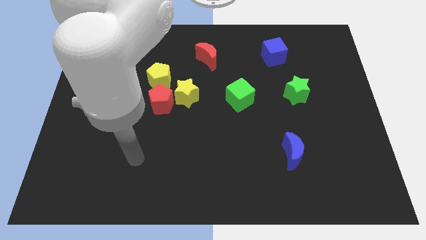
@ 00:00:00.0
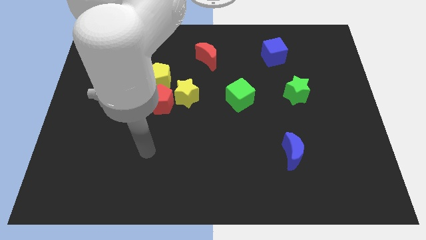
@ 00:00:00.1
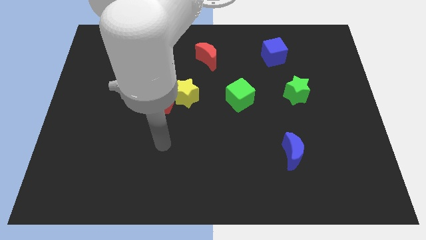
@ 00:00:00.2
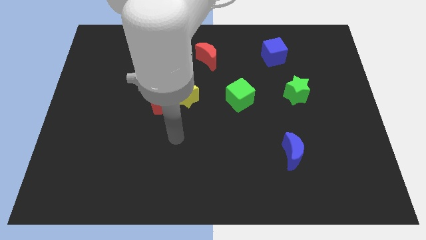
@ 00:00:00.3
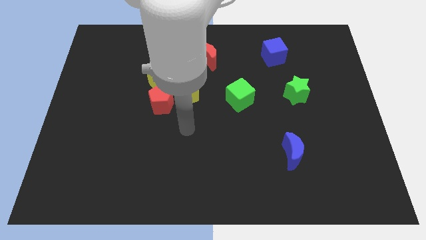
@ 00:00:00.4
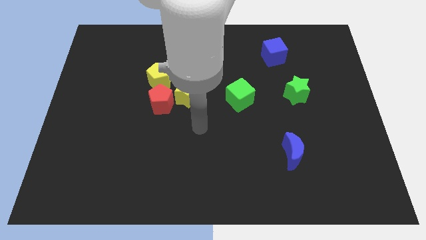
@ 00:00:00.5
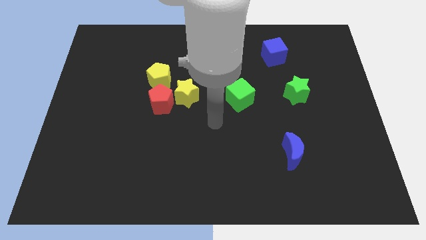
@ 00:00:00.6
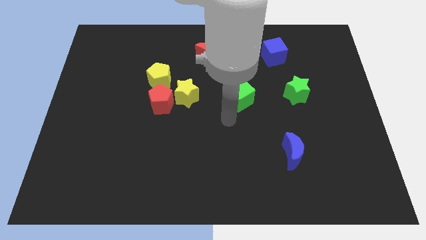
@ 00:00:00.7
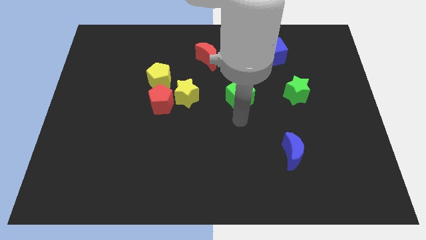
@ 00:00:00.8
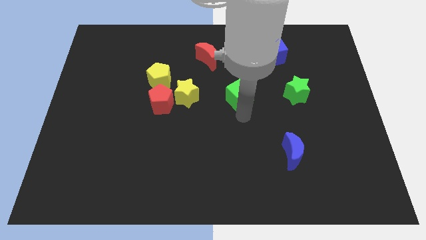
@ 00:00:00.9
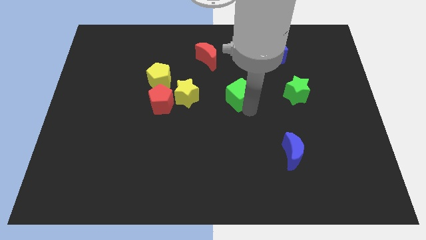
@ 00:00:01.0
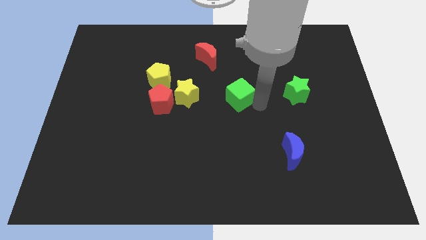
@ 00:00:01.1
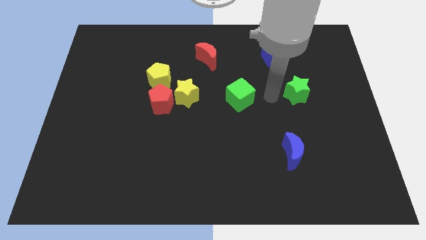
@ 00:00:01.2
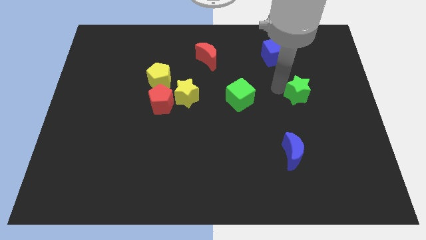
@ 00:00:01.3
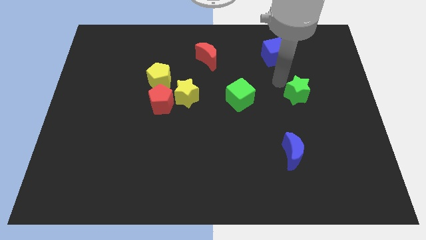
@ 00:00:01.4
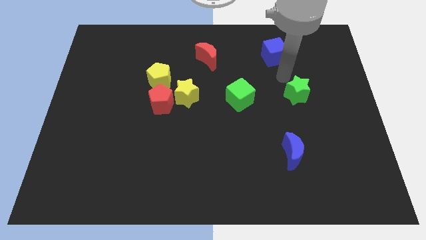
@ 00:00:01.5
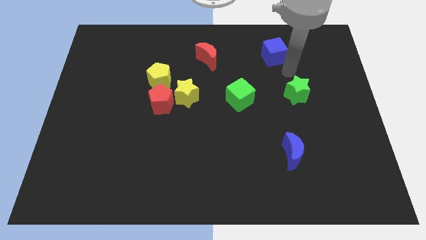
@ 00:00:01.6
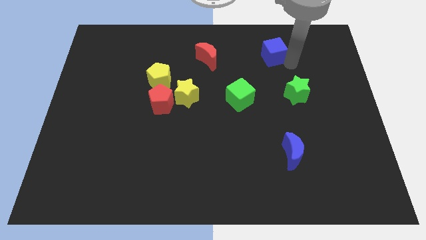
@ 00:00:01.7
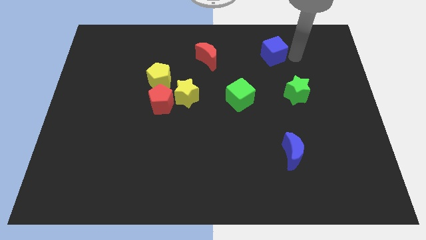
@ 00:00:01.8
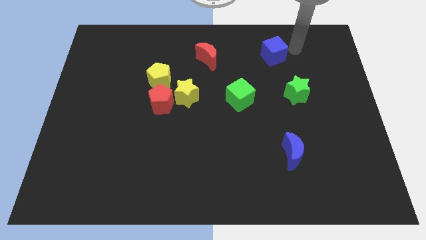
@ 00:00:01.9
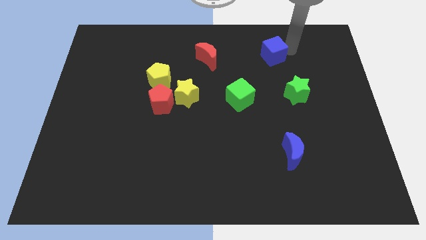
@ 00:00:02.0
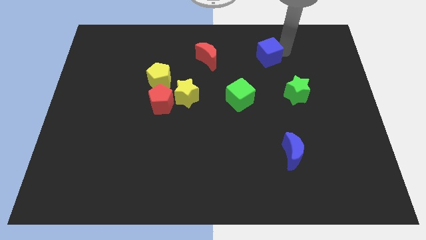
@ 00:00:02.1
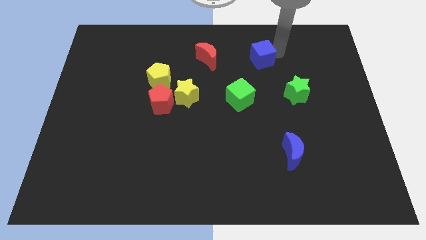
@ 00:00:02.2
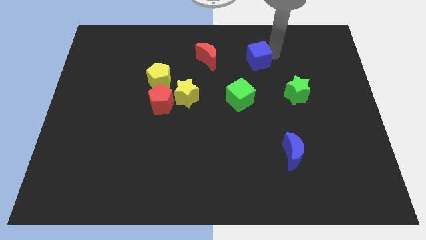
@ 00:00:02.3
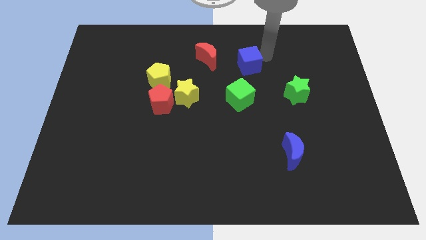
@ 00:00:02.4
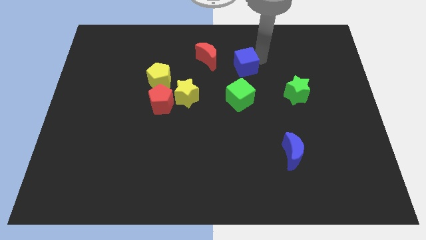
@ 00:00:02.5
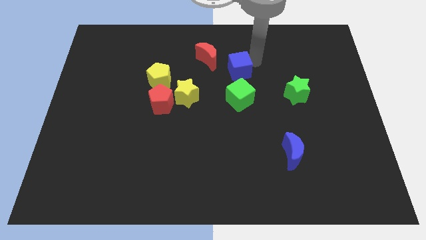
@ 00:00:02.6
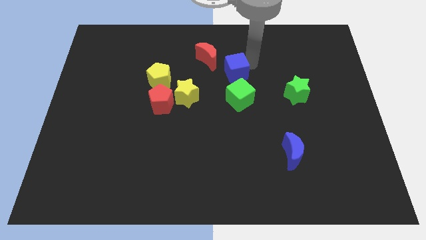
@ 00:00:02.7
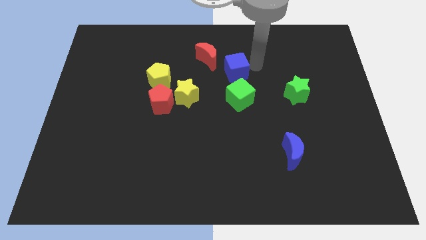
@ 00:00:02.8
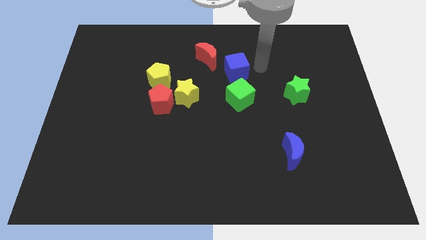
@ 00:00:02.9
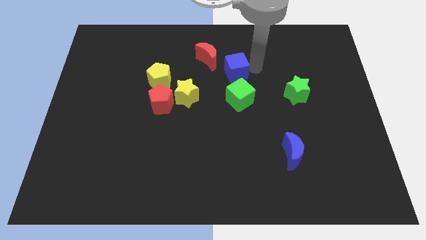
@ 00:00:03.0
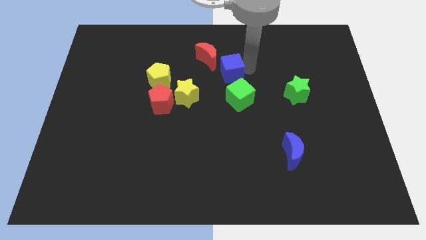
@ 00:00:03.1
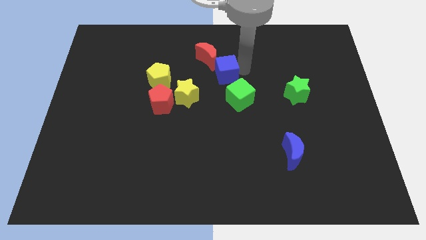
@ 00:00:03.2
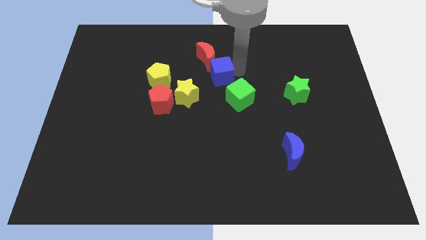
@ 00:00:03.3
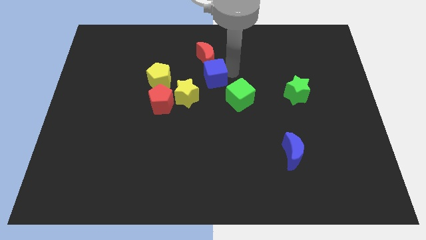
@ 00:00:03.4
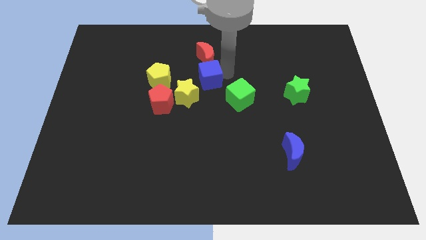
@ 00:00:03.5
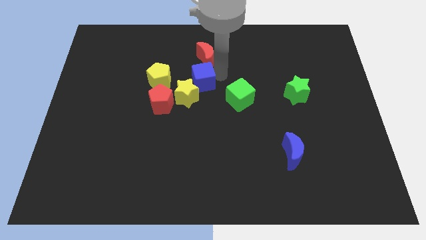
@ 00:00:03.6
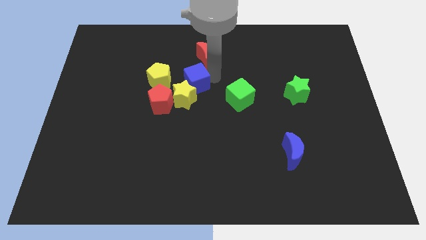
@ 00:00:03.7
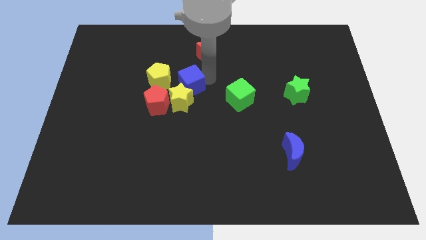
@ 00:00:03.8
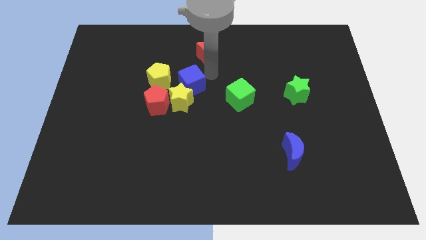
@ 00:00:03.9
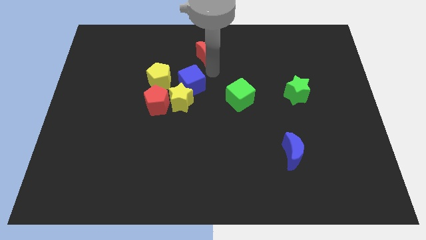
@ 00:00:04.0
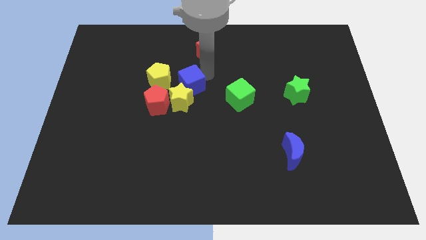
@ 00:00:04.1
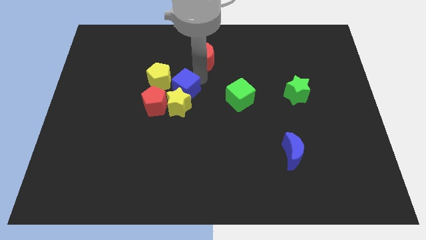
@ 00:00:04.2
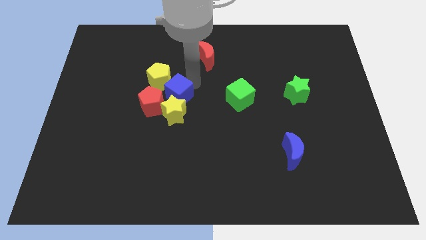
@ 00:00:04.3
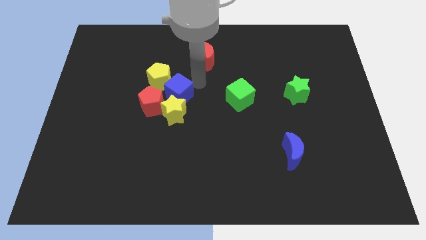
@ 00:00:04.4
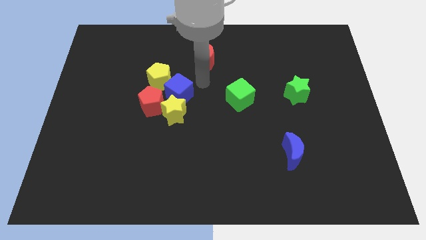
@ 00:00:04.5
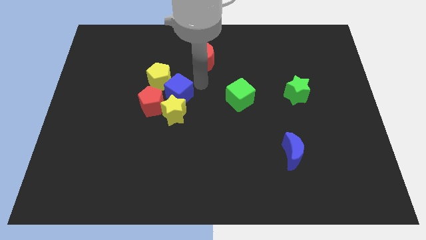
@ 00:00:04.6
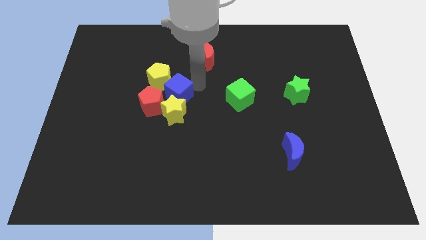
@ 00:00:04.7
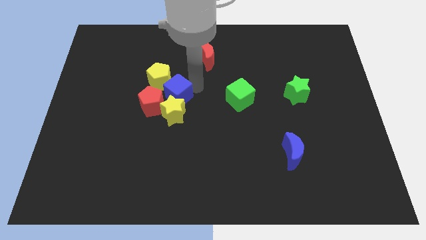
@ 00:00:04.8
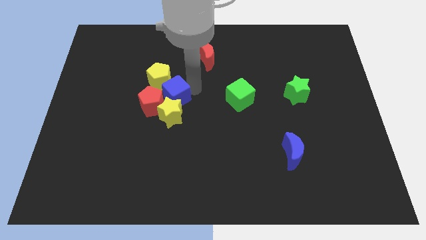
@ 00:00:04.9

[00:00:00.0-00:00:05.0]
put the blue cube to the red pentagon

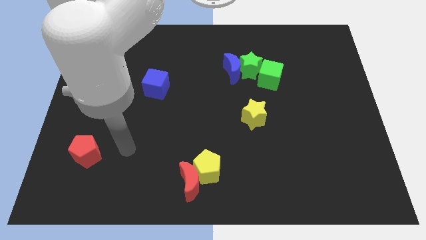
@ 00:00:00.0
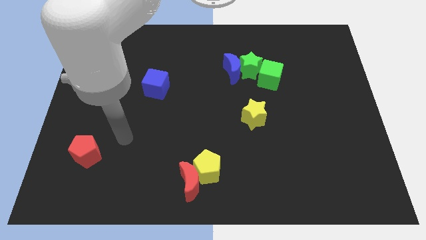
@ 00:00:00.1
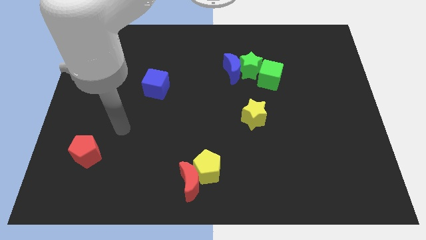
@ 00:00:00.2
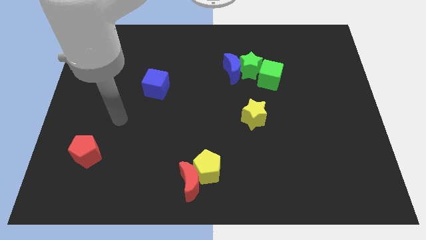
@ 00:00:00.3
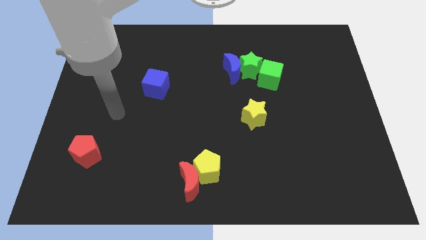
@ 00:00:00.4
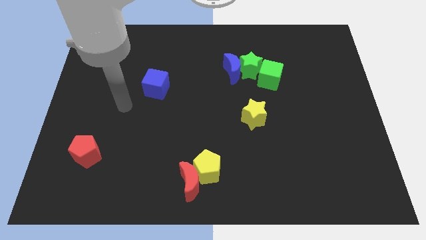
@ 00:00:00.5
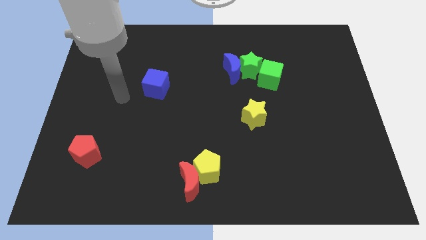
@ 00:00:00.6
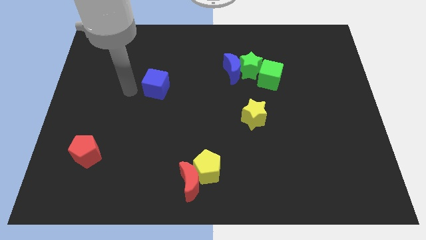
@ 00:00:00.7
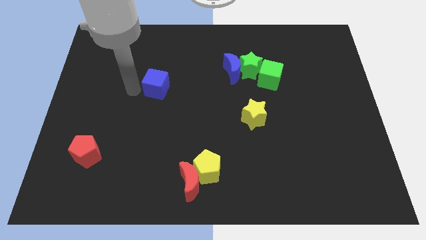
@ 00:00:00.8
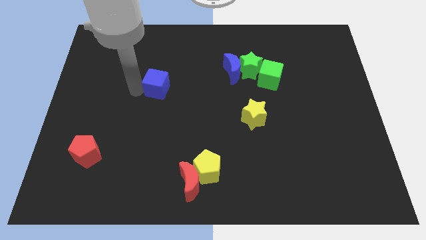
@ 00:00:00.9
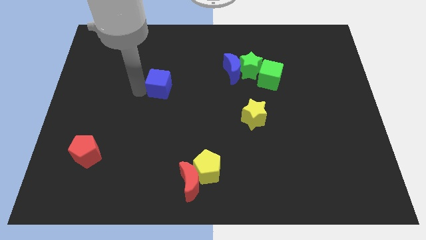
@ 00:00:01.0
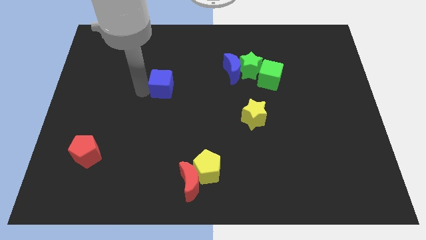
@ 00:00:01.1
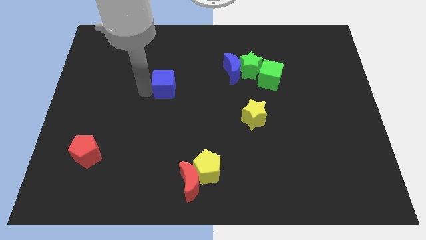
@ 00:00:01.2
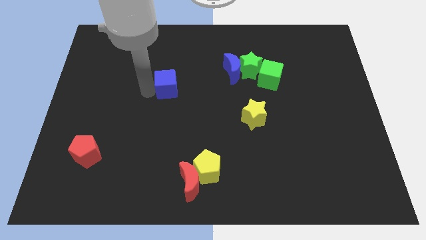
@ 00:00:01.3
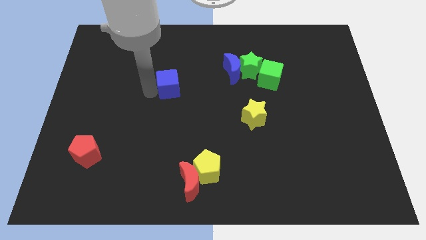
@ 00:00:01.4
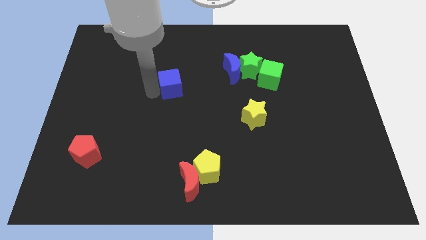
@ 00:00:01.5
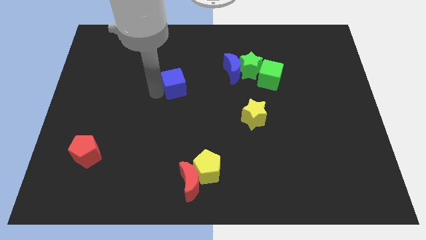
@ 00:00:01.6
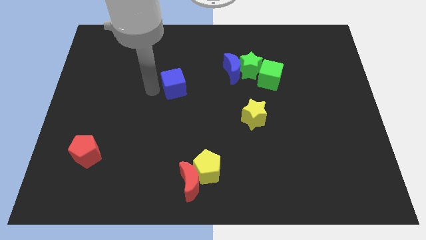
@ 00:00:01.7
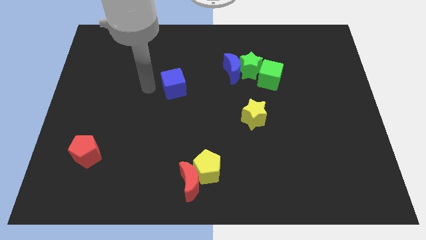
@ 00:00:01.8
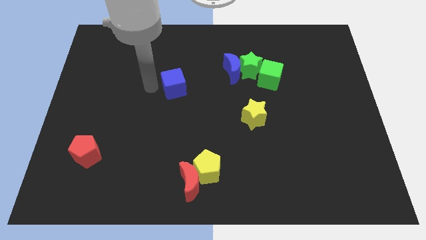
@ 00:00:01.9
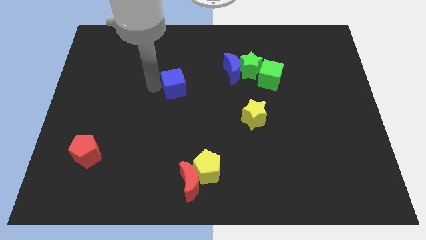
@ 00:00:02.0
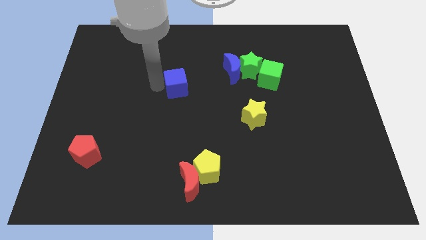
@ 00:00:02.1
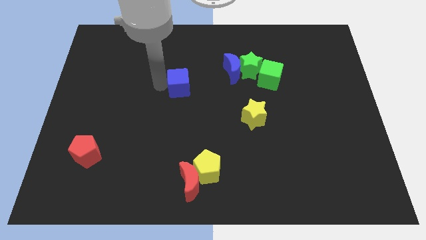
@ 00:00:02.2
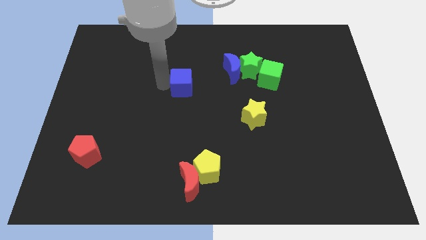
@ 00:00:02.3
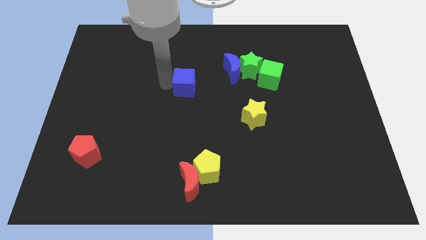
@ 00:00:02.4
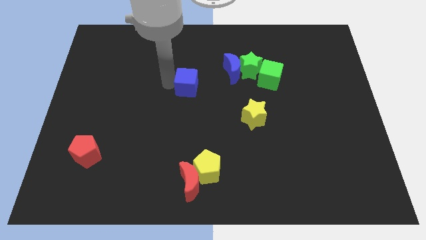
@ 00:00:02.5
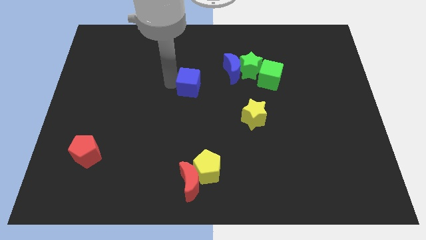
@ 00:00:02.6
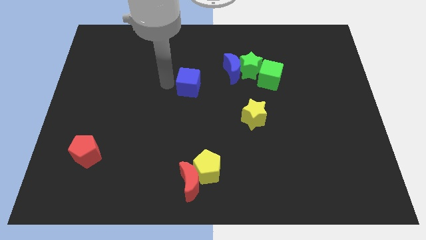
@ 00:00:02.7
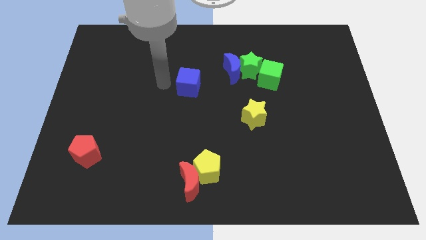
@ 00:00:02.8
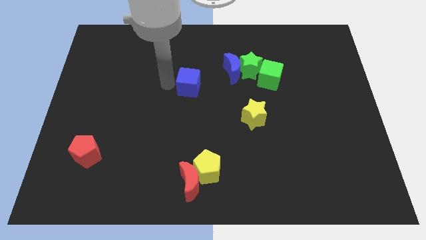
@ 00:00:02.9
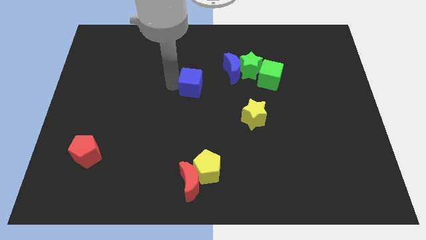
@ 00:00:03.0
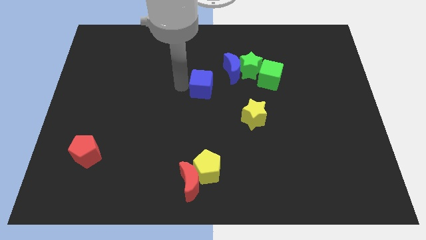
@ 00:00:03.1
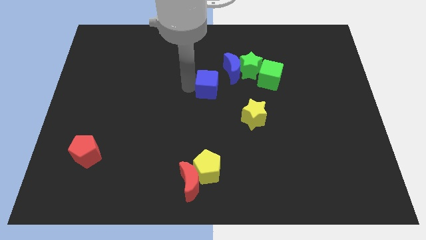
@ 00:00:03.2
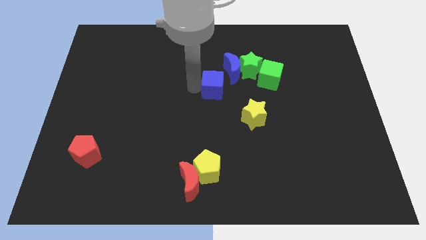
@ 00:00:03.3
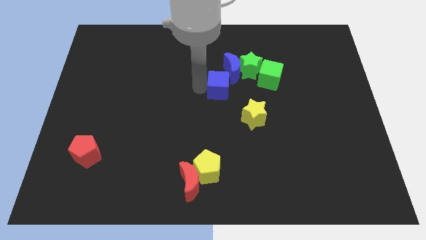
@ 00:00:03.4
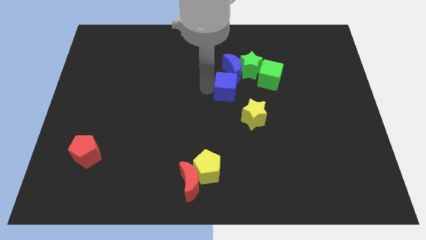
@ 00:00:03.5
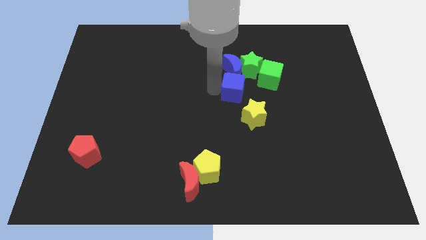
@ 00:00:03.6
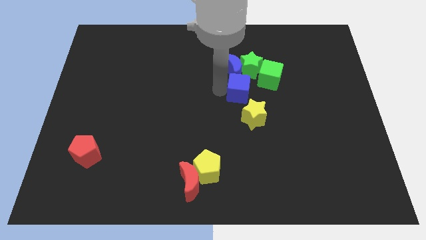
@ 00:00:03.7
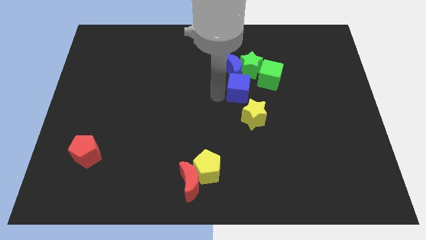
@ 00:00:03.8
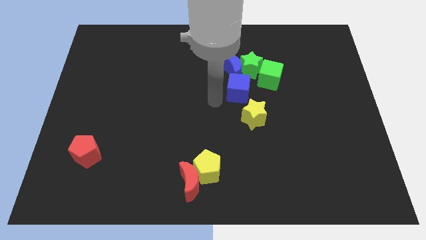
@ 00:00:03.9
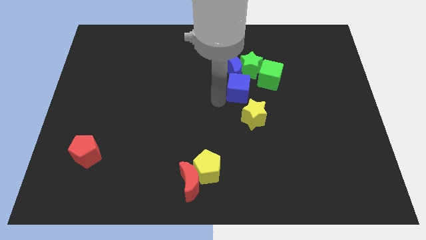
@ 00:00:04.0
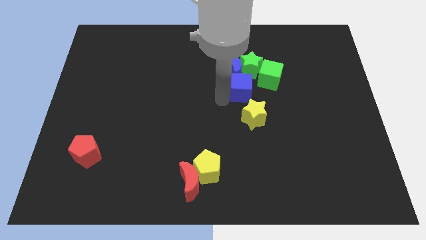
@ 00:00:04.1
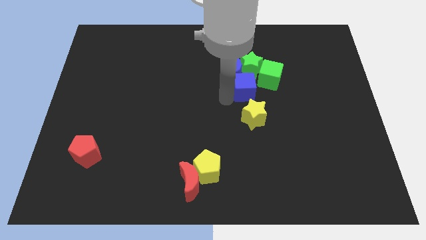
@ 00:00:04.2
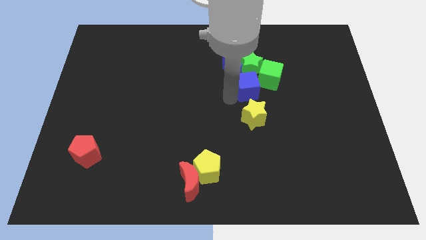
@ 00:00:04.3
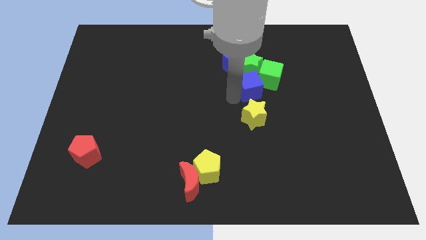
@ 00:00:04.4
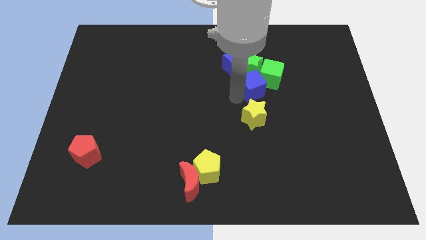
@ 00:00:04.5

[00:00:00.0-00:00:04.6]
put the blue cube towards the green cube
